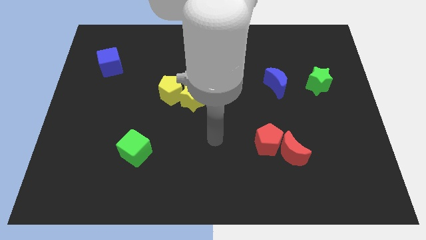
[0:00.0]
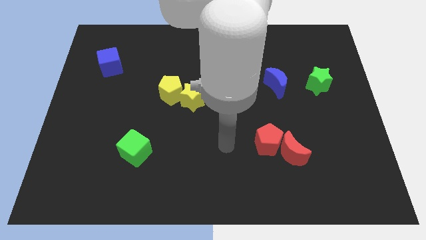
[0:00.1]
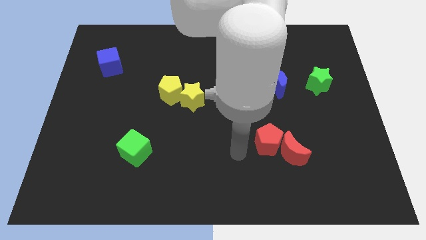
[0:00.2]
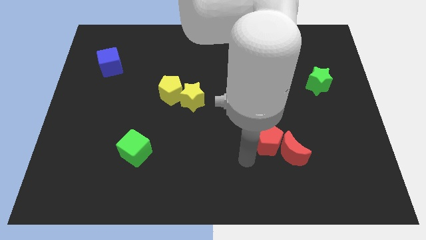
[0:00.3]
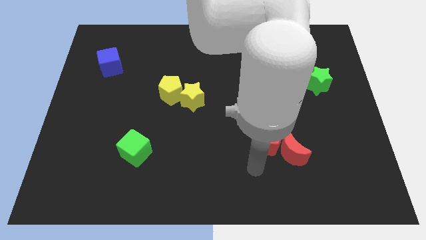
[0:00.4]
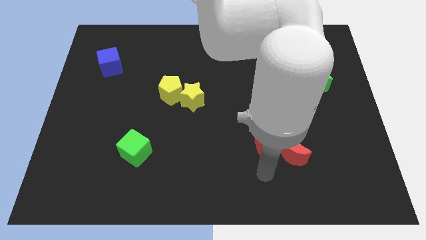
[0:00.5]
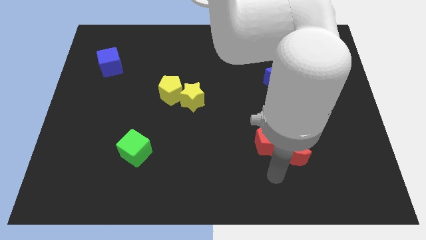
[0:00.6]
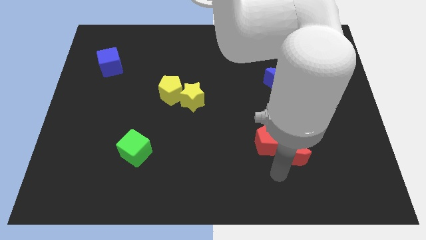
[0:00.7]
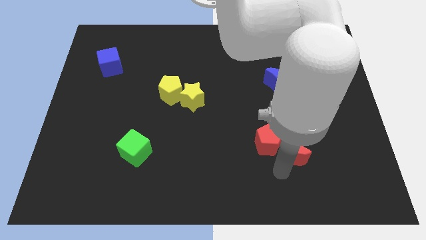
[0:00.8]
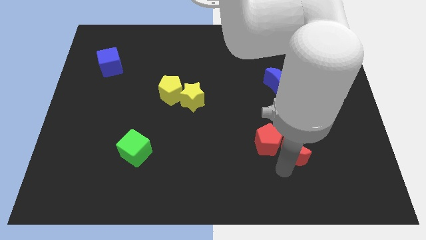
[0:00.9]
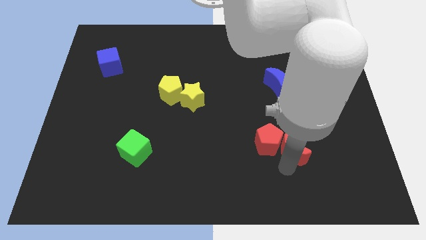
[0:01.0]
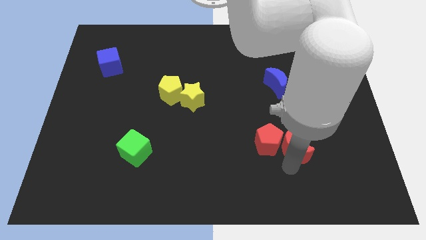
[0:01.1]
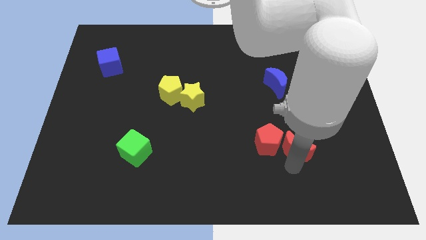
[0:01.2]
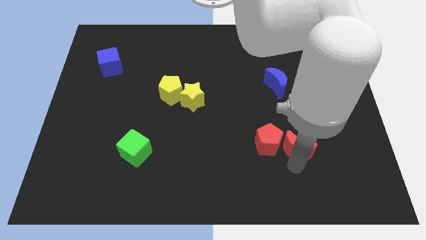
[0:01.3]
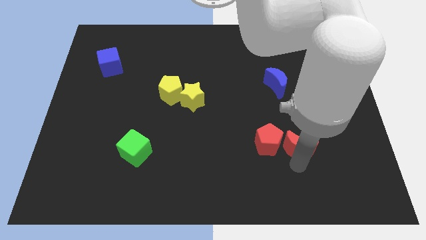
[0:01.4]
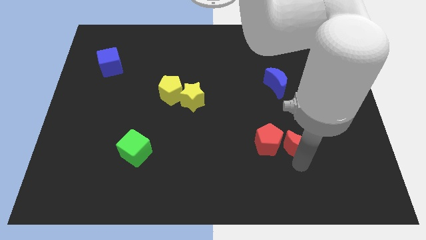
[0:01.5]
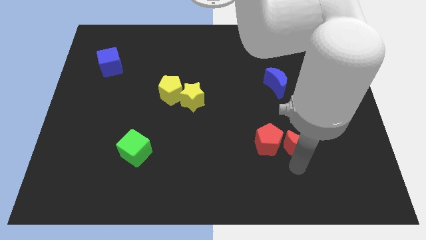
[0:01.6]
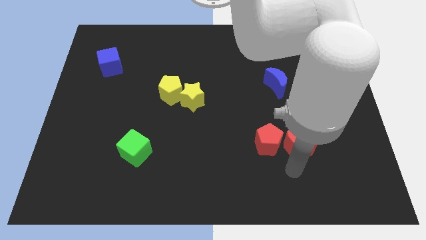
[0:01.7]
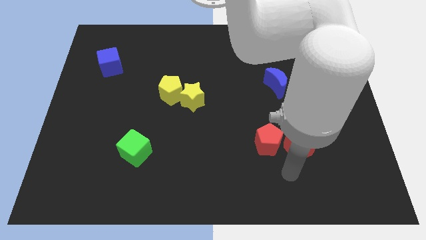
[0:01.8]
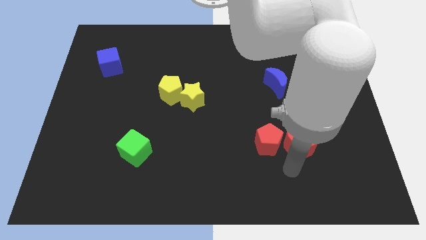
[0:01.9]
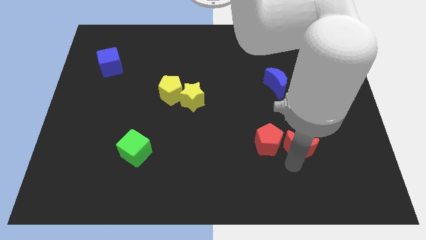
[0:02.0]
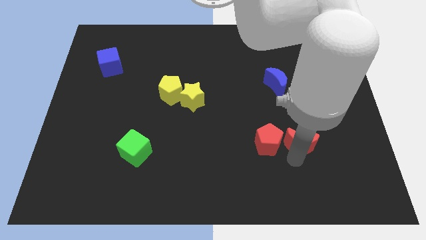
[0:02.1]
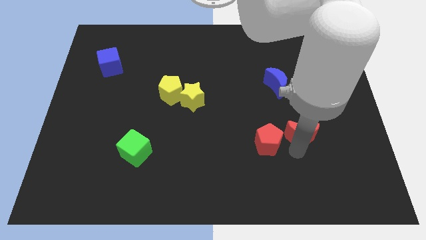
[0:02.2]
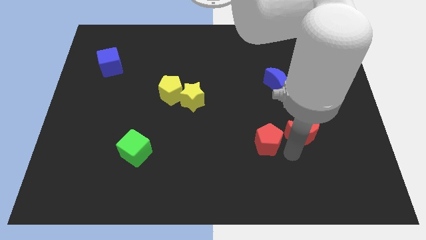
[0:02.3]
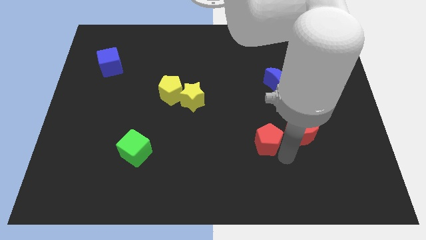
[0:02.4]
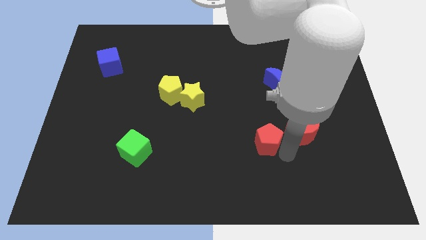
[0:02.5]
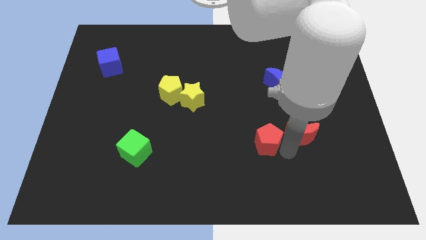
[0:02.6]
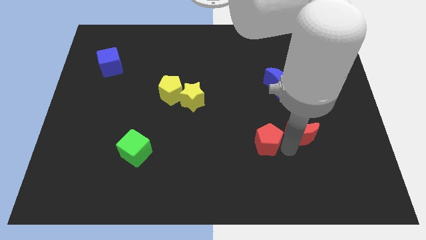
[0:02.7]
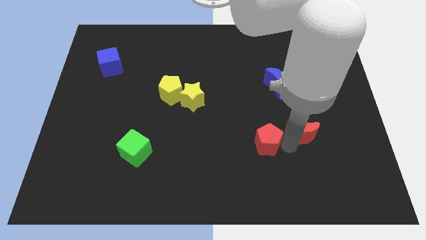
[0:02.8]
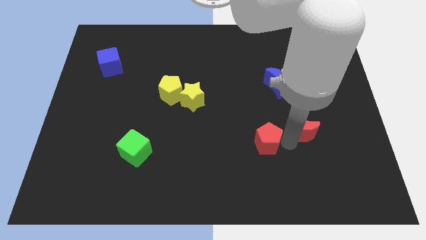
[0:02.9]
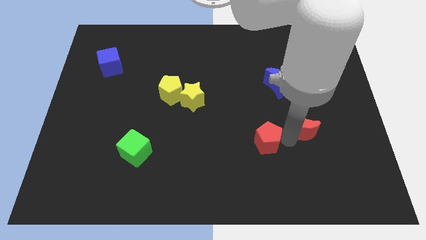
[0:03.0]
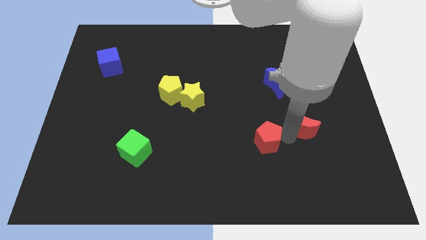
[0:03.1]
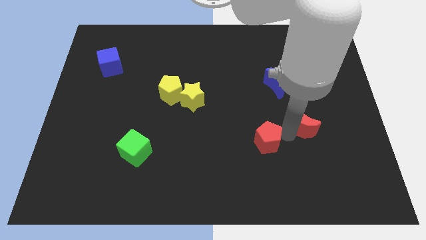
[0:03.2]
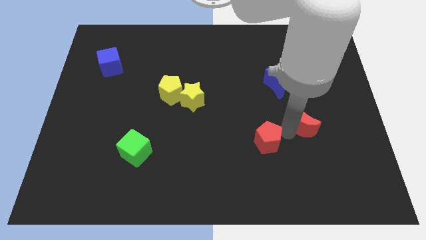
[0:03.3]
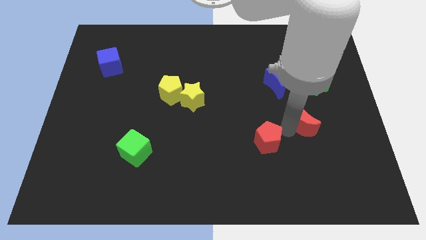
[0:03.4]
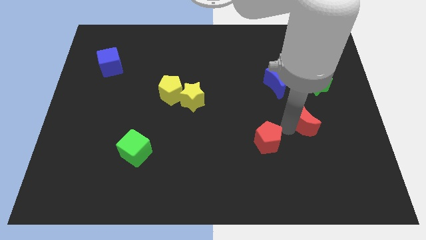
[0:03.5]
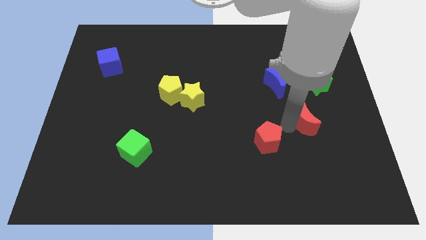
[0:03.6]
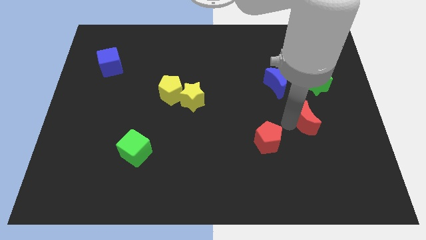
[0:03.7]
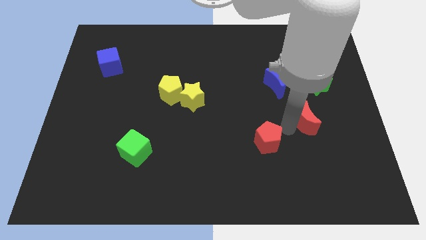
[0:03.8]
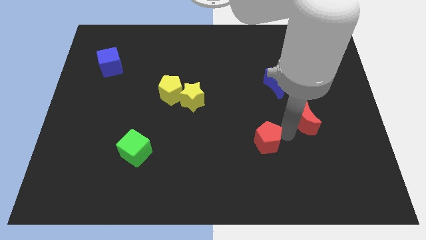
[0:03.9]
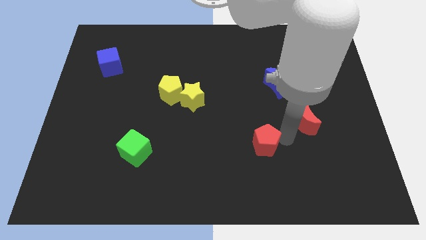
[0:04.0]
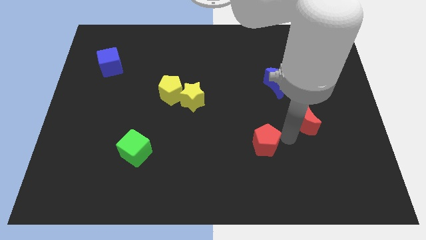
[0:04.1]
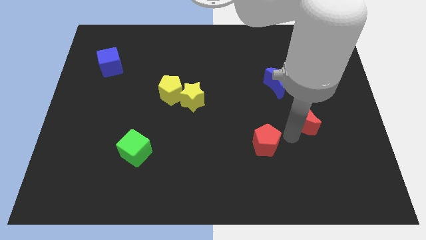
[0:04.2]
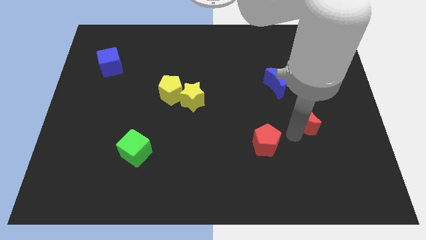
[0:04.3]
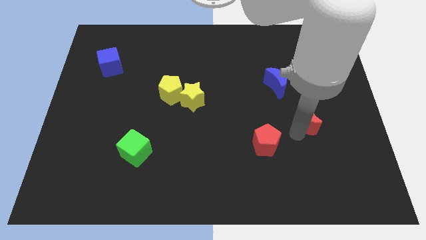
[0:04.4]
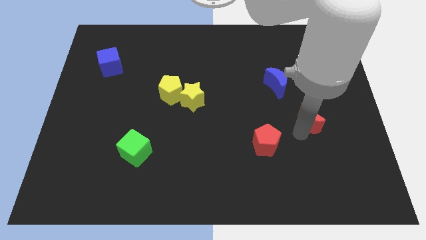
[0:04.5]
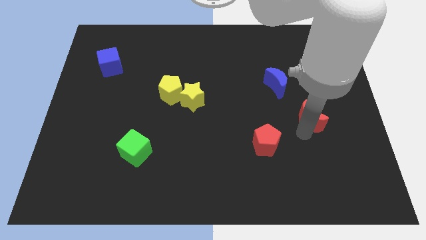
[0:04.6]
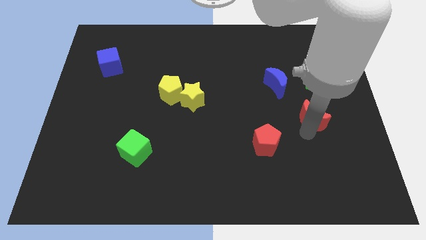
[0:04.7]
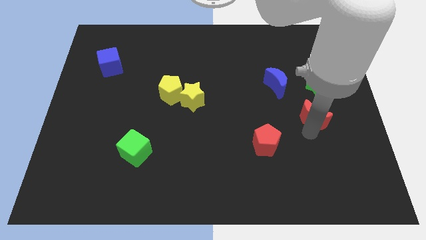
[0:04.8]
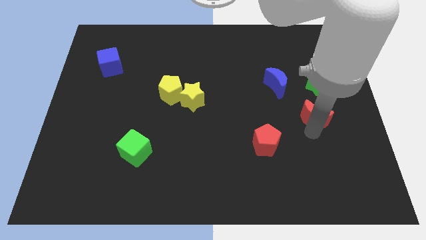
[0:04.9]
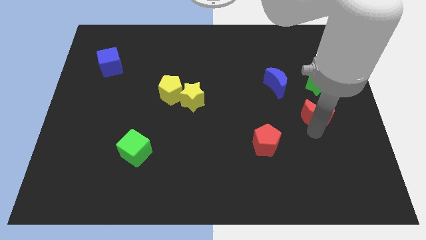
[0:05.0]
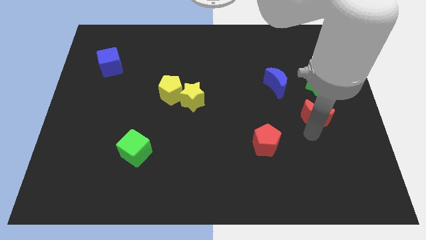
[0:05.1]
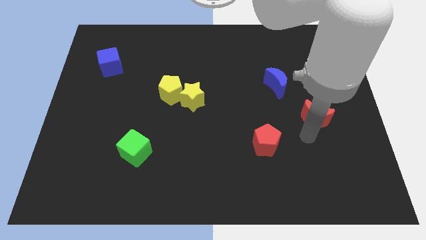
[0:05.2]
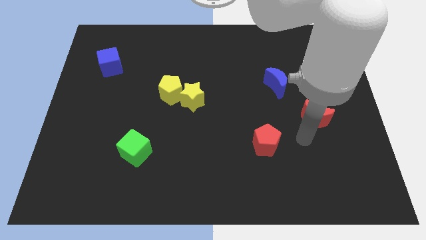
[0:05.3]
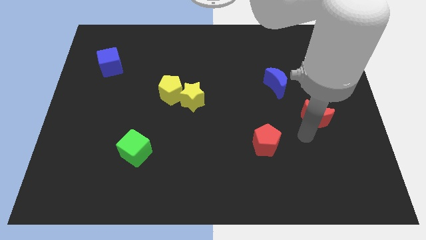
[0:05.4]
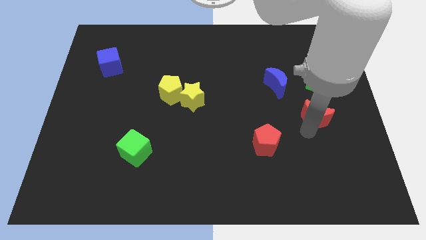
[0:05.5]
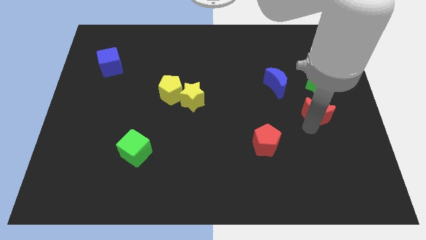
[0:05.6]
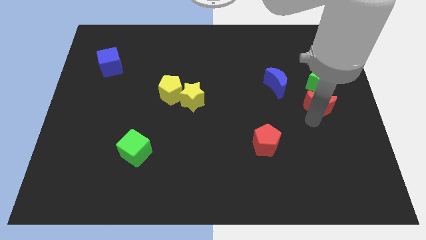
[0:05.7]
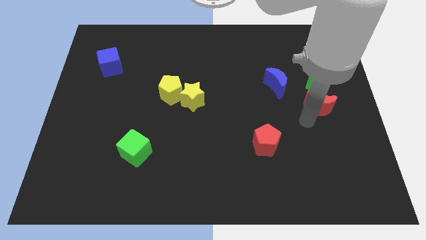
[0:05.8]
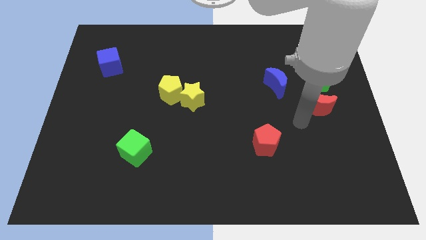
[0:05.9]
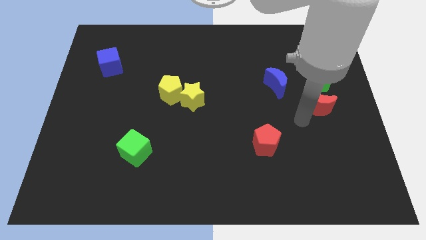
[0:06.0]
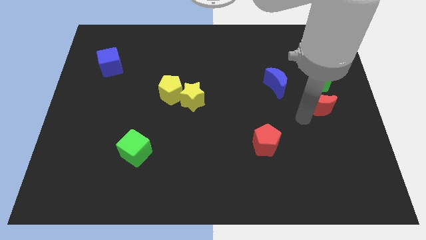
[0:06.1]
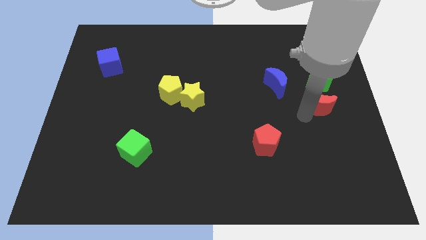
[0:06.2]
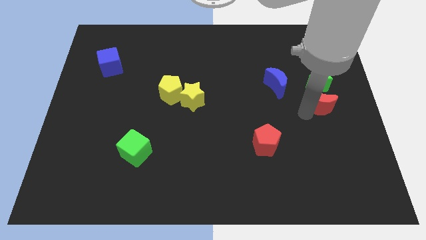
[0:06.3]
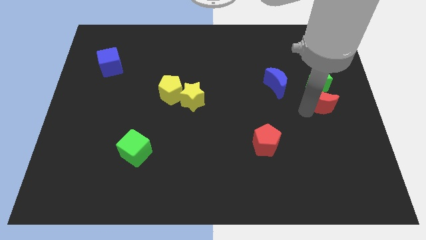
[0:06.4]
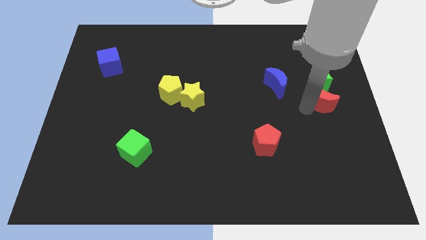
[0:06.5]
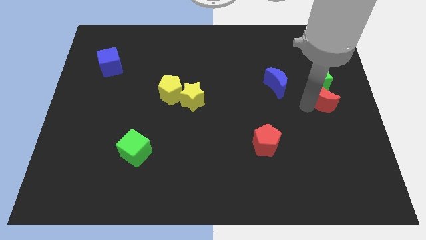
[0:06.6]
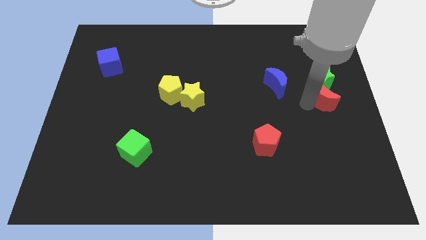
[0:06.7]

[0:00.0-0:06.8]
slide the red moon to the right of the blue moon

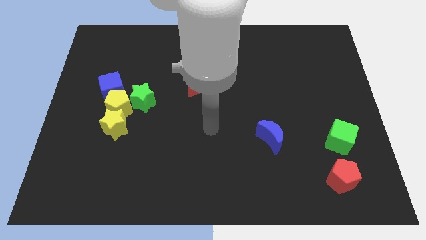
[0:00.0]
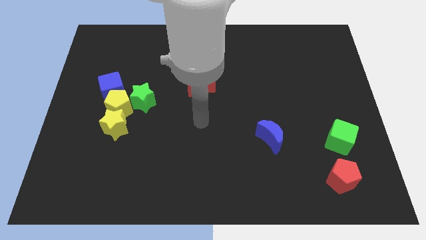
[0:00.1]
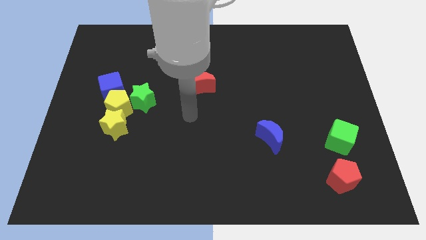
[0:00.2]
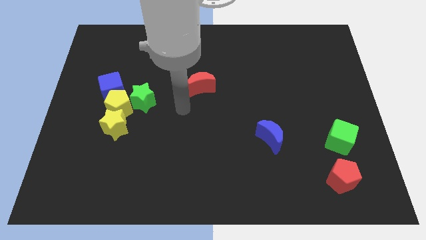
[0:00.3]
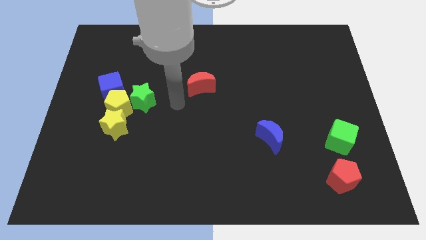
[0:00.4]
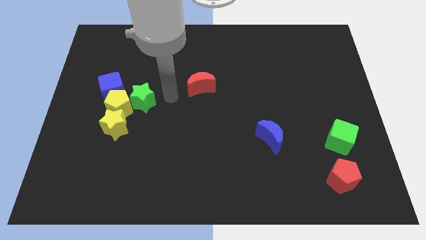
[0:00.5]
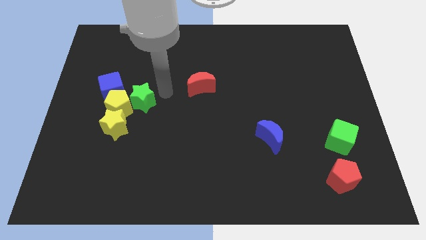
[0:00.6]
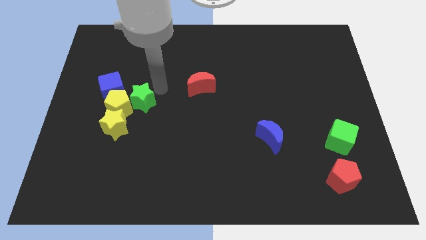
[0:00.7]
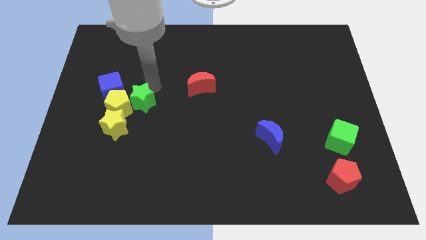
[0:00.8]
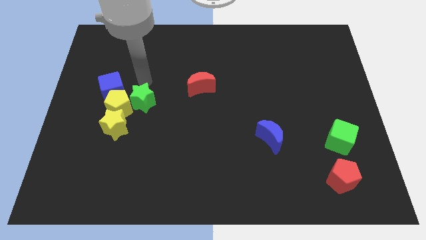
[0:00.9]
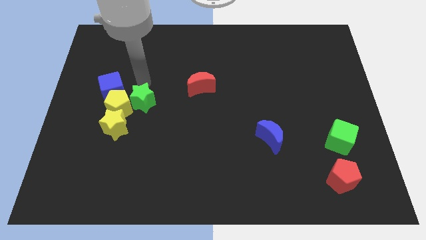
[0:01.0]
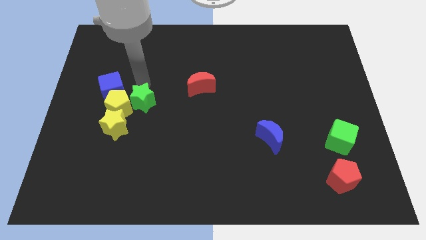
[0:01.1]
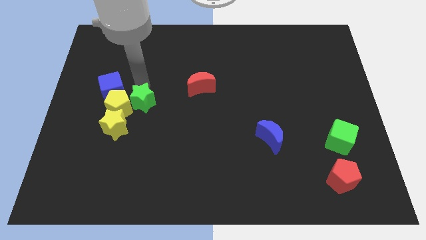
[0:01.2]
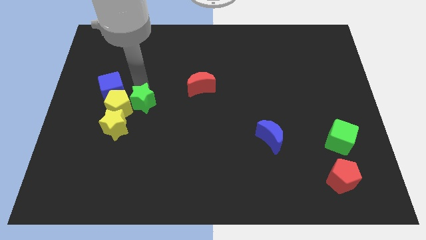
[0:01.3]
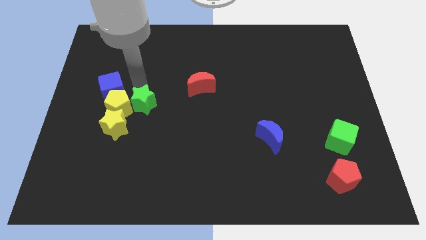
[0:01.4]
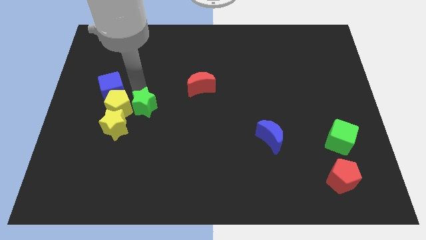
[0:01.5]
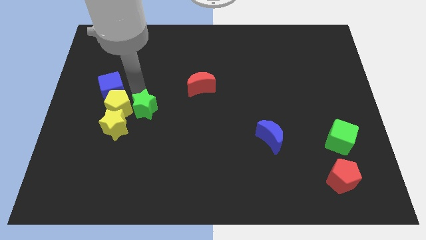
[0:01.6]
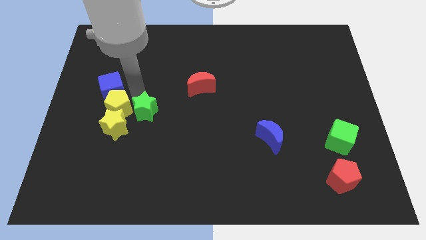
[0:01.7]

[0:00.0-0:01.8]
push the green star to the right side of the yellow star
